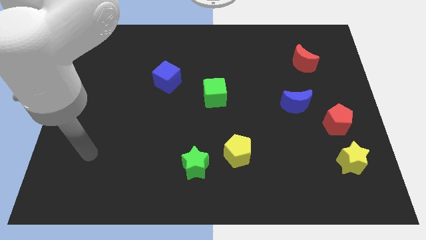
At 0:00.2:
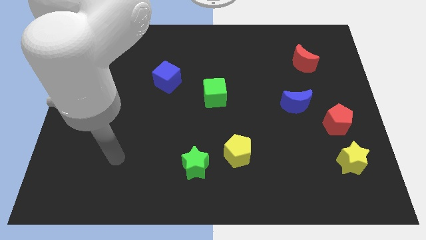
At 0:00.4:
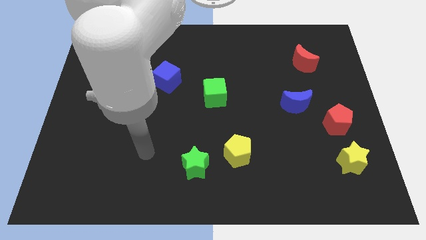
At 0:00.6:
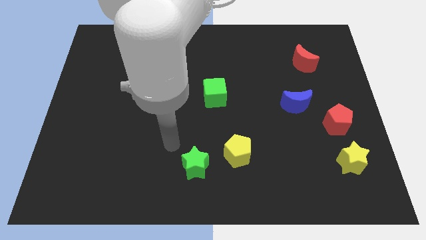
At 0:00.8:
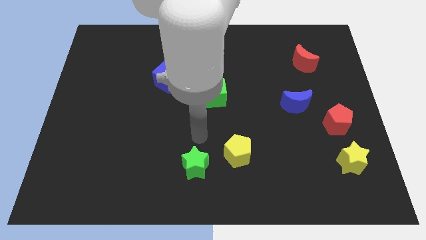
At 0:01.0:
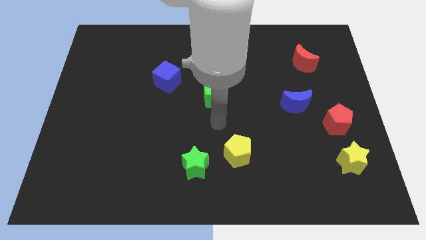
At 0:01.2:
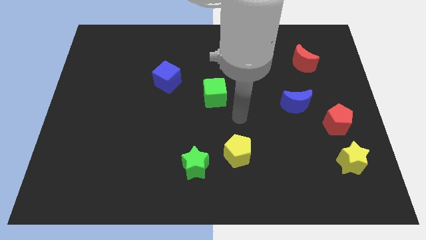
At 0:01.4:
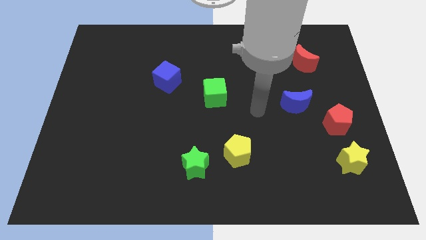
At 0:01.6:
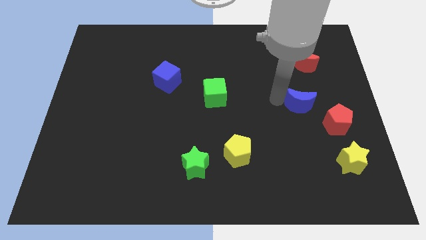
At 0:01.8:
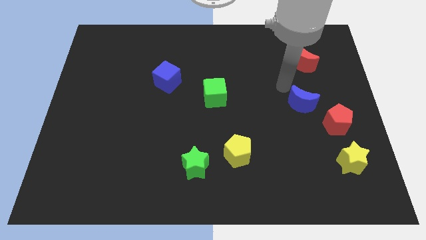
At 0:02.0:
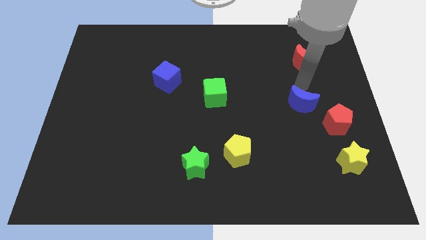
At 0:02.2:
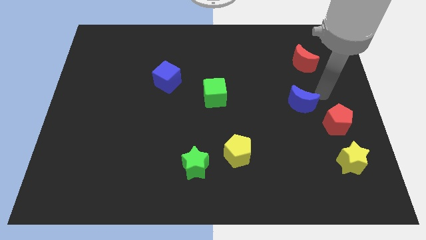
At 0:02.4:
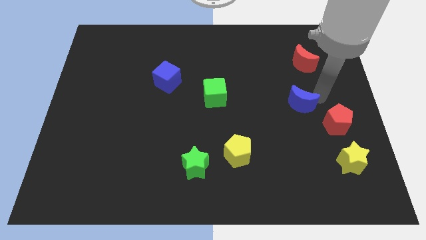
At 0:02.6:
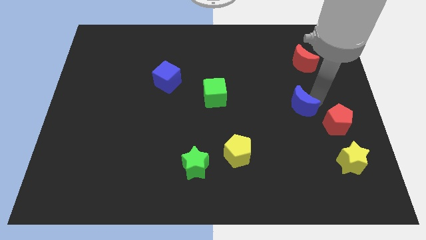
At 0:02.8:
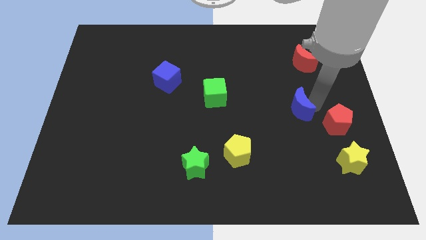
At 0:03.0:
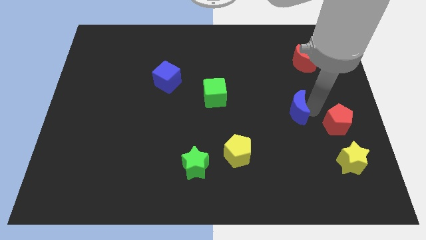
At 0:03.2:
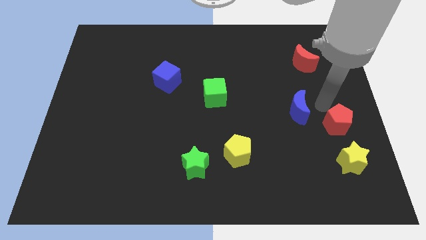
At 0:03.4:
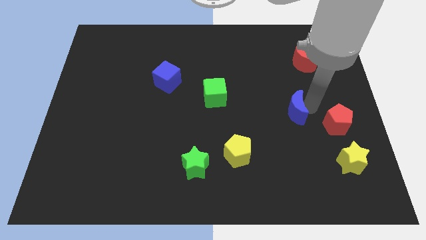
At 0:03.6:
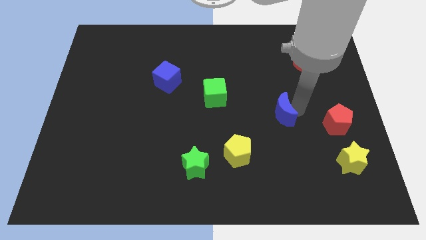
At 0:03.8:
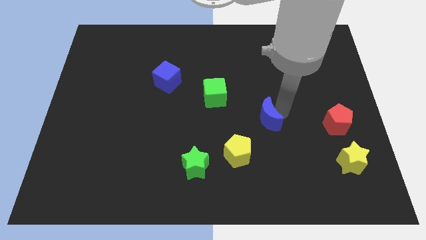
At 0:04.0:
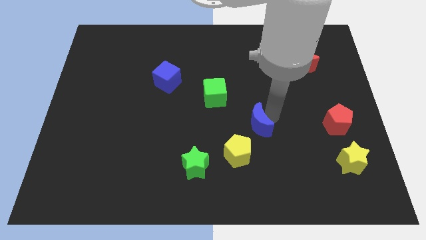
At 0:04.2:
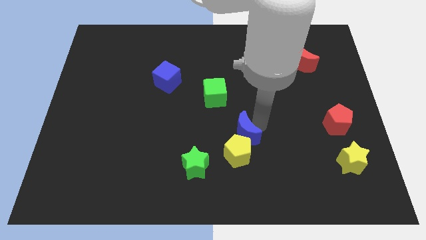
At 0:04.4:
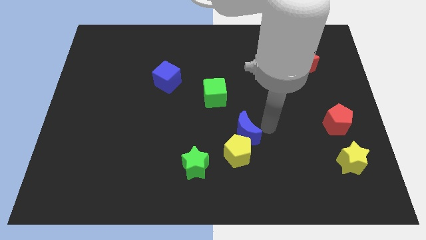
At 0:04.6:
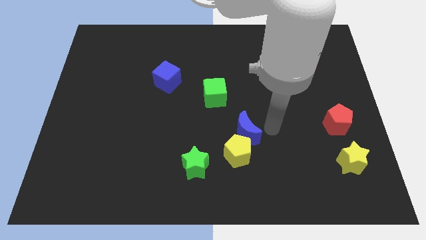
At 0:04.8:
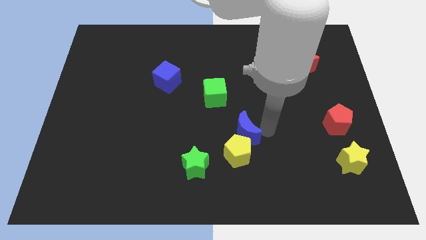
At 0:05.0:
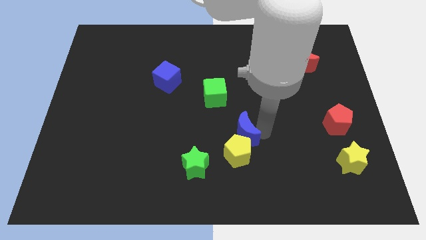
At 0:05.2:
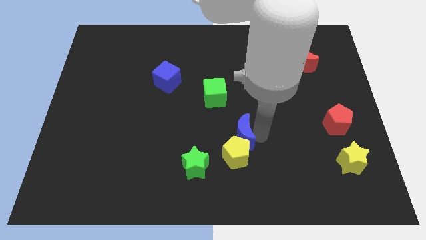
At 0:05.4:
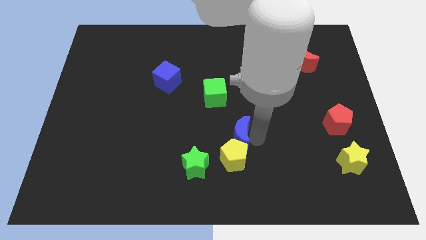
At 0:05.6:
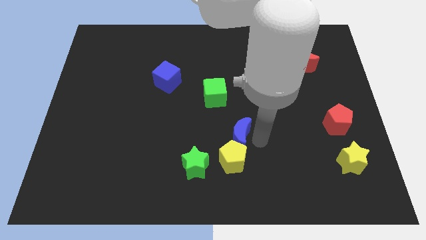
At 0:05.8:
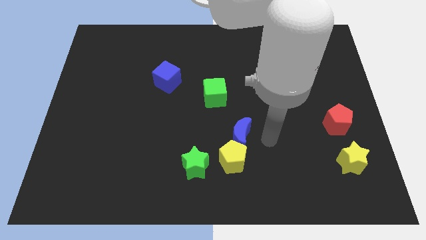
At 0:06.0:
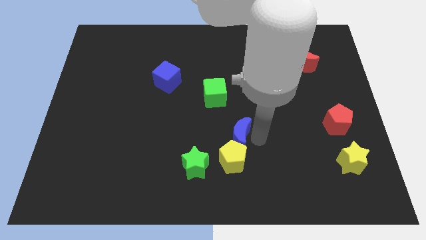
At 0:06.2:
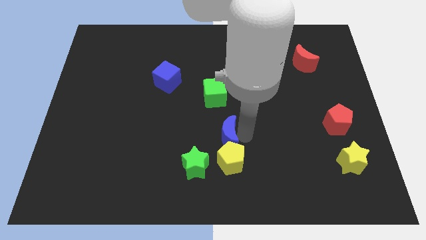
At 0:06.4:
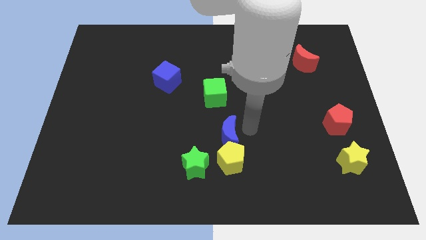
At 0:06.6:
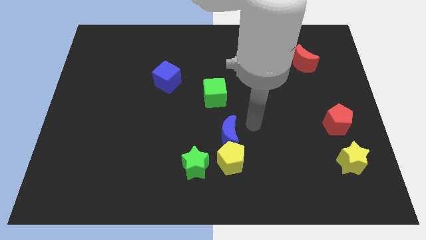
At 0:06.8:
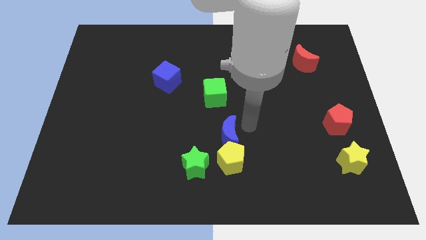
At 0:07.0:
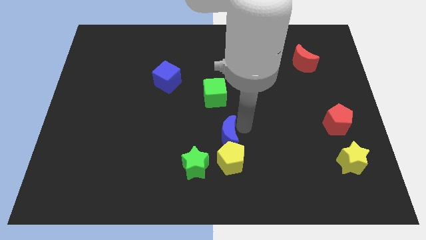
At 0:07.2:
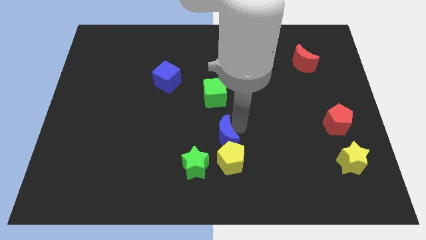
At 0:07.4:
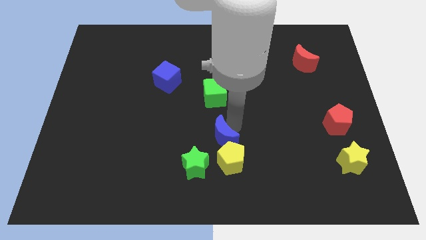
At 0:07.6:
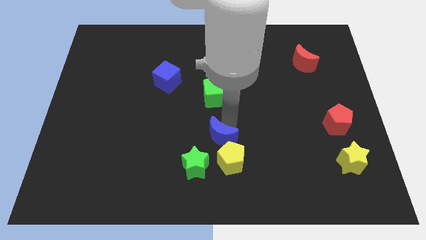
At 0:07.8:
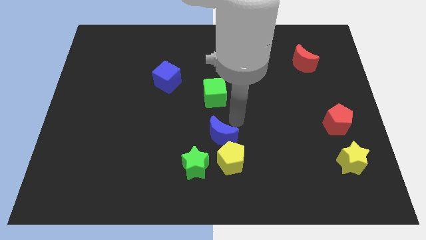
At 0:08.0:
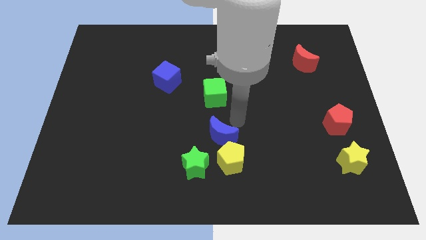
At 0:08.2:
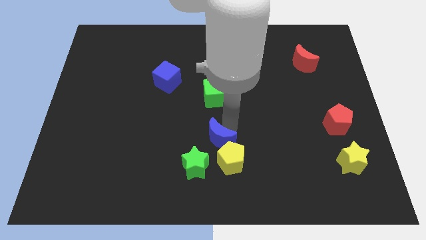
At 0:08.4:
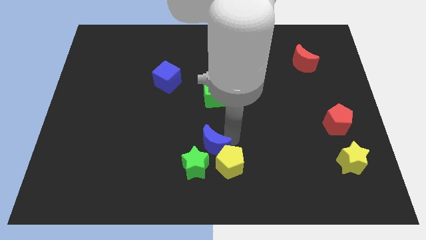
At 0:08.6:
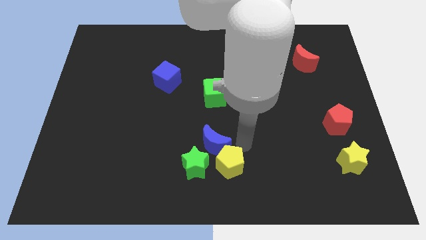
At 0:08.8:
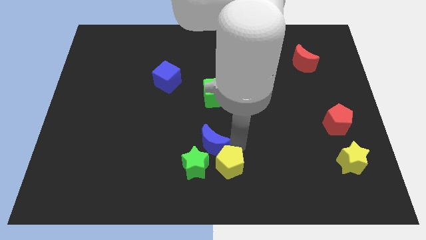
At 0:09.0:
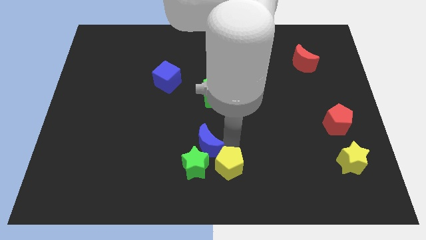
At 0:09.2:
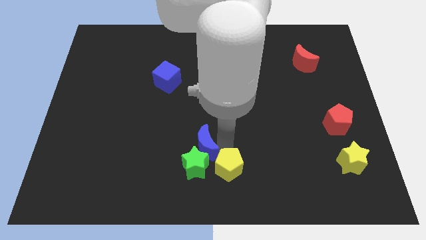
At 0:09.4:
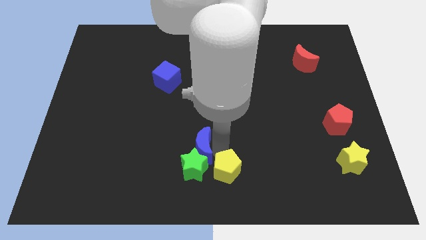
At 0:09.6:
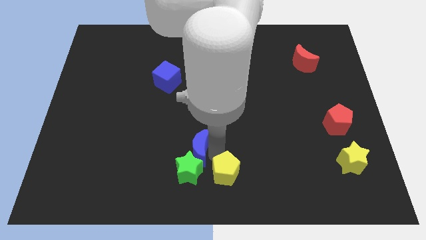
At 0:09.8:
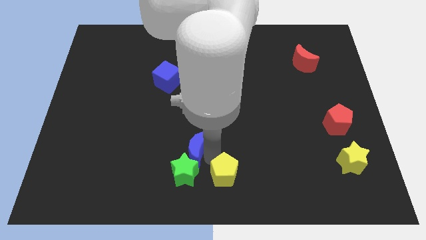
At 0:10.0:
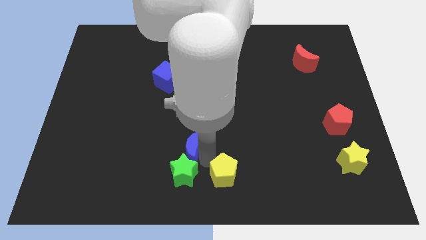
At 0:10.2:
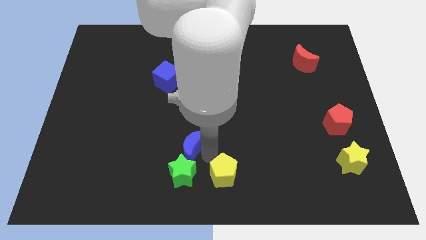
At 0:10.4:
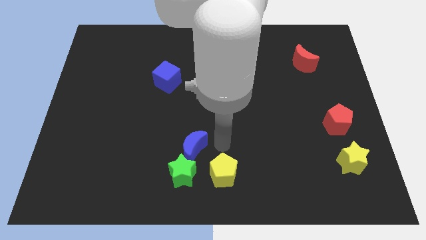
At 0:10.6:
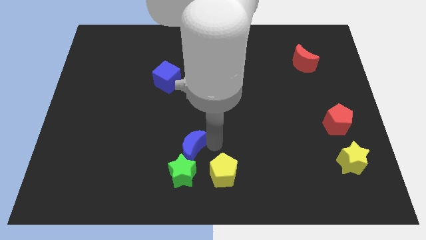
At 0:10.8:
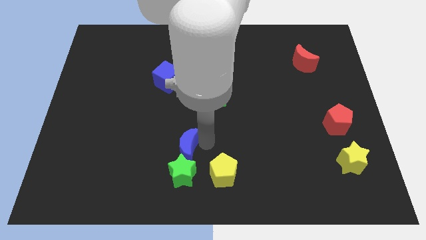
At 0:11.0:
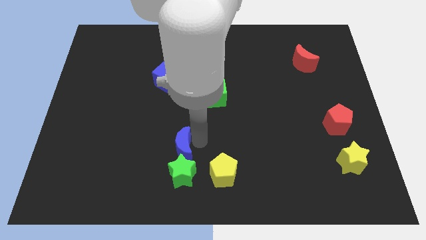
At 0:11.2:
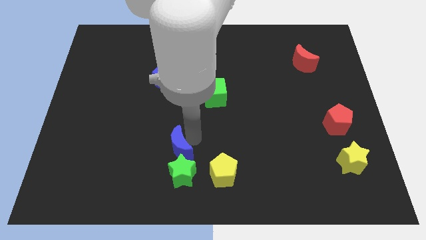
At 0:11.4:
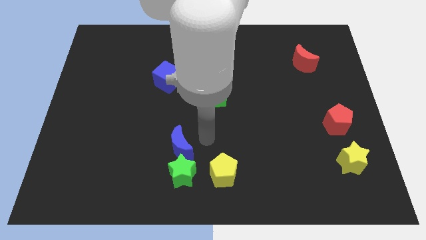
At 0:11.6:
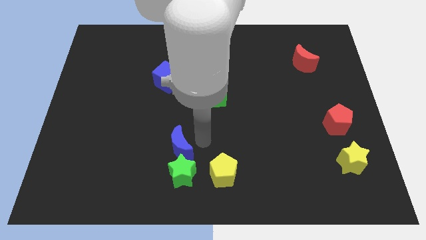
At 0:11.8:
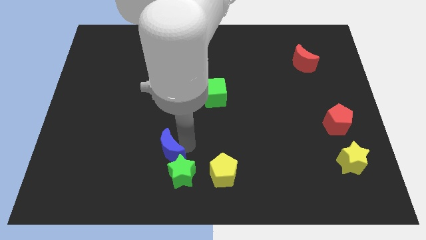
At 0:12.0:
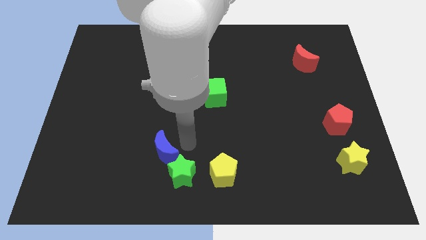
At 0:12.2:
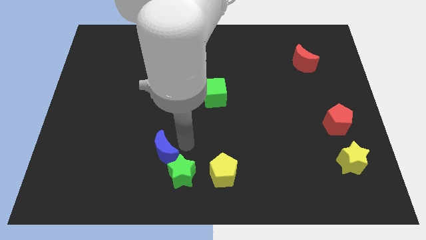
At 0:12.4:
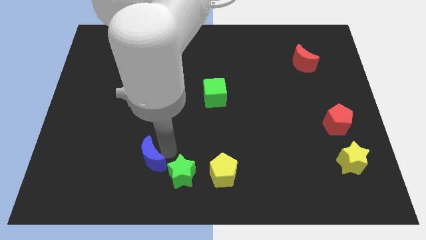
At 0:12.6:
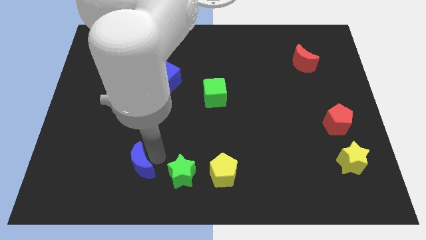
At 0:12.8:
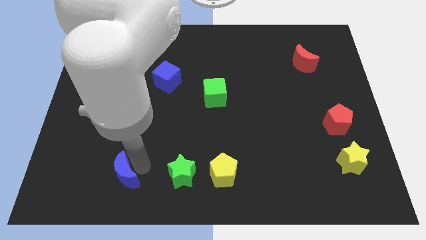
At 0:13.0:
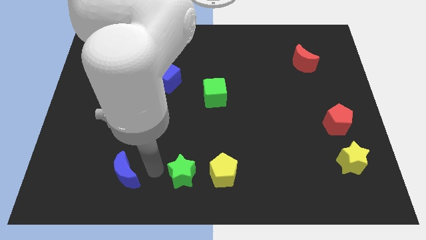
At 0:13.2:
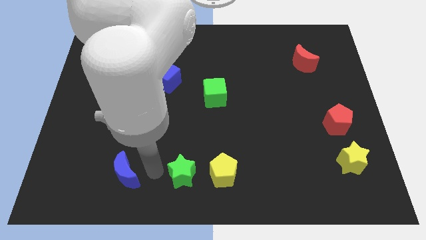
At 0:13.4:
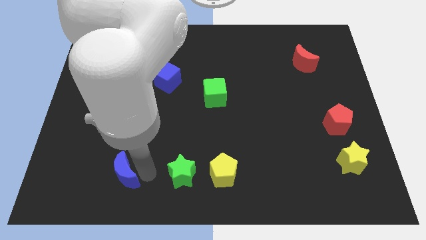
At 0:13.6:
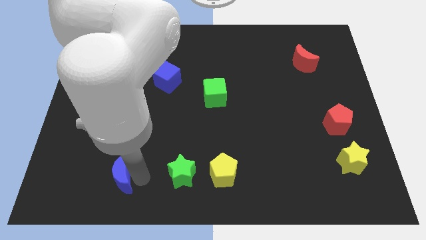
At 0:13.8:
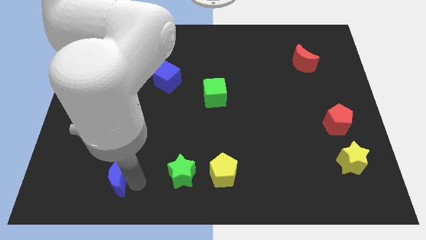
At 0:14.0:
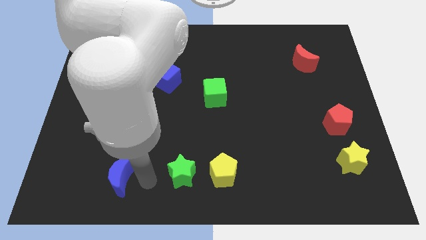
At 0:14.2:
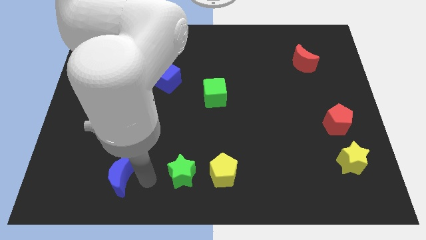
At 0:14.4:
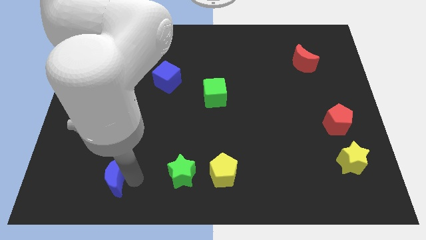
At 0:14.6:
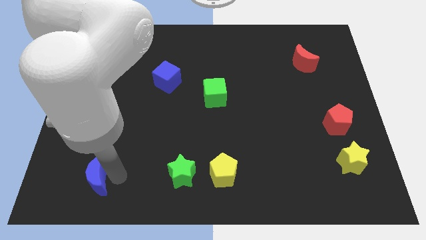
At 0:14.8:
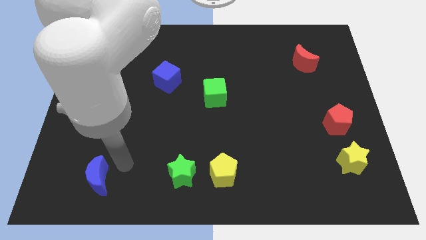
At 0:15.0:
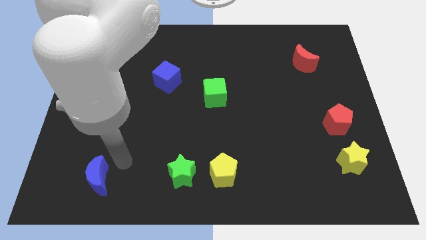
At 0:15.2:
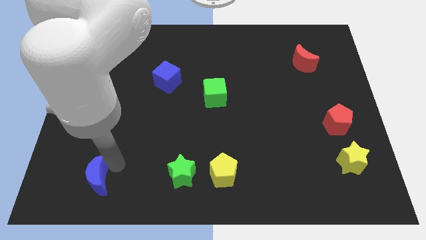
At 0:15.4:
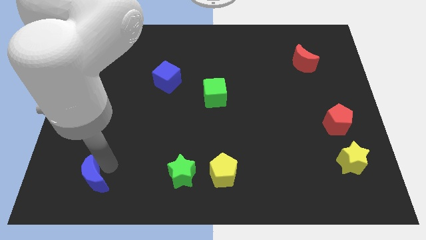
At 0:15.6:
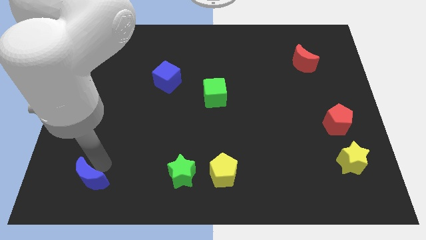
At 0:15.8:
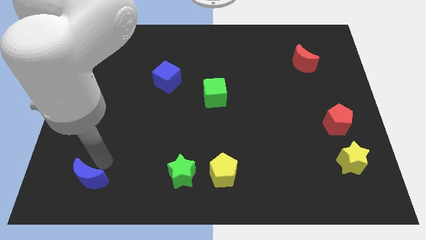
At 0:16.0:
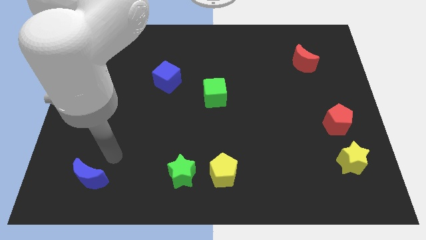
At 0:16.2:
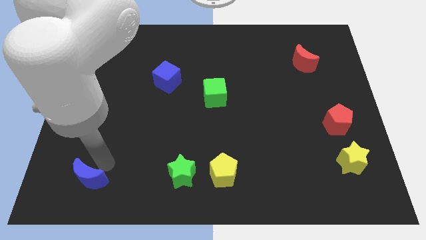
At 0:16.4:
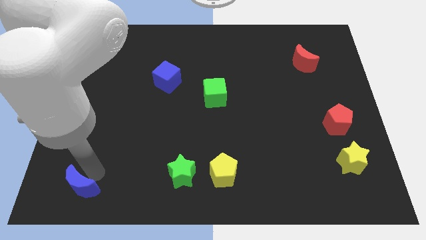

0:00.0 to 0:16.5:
put the blue moon to the lower left corner
